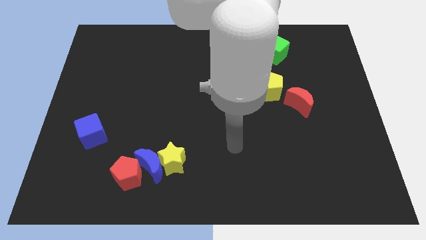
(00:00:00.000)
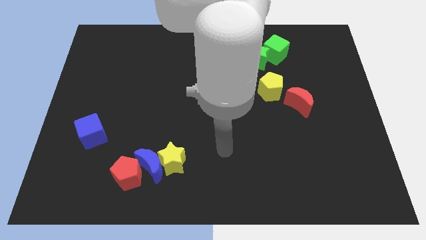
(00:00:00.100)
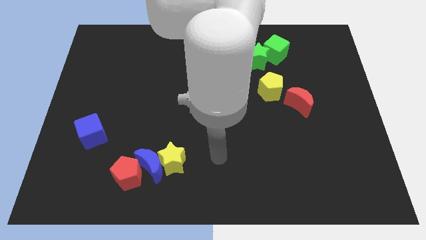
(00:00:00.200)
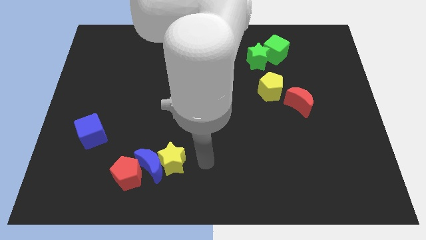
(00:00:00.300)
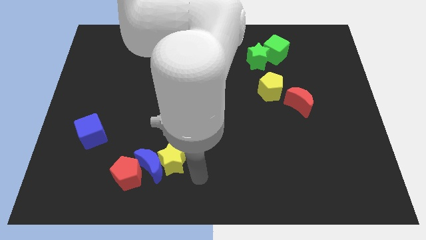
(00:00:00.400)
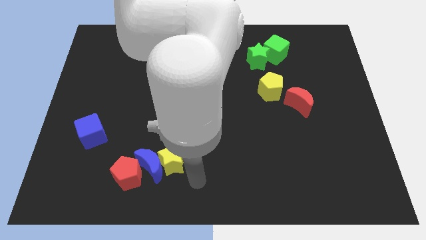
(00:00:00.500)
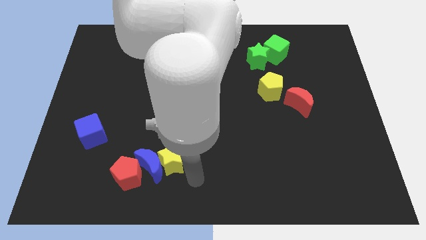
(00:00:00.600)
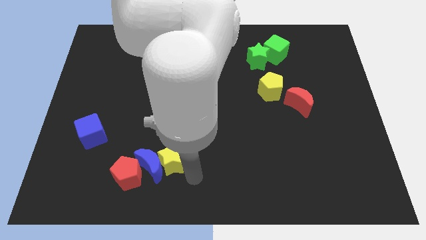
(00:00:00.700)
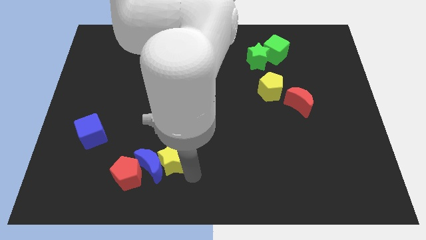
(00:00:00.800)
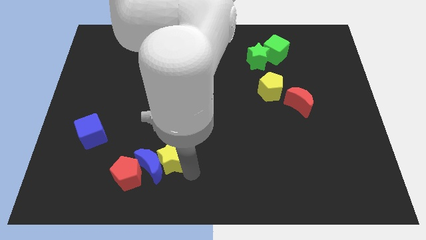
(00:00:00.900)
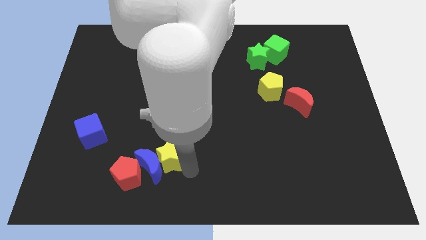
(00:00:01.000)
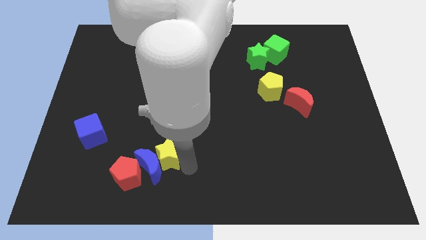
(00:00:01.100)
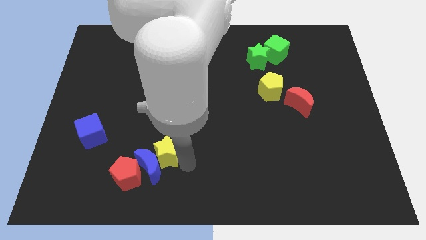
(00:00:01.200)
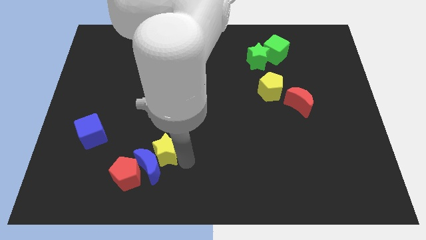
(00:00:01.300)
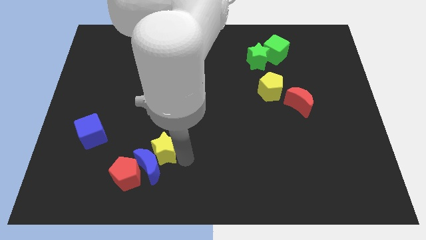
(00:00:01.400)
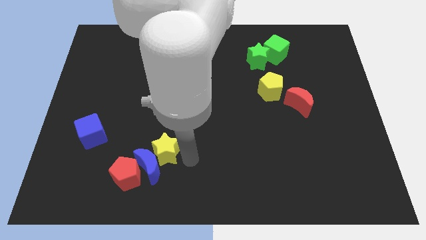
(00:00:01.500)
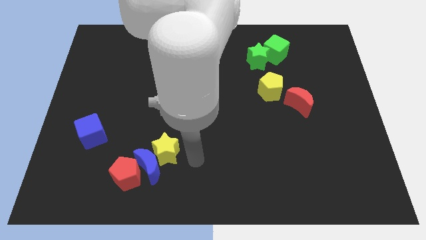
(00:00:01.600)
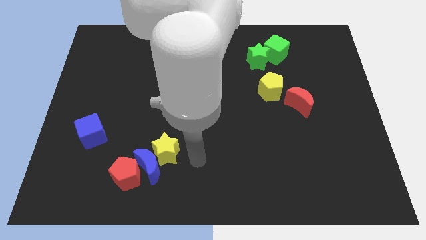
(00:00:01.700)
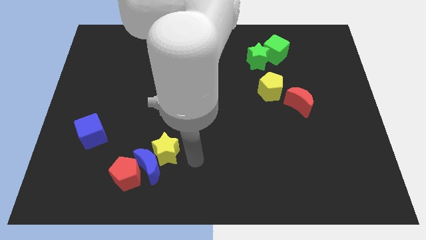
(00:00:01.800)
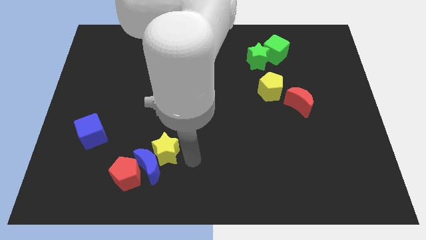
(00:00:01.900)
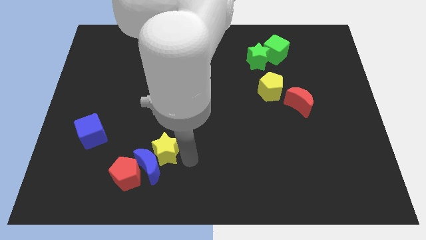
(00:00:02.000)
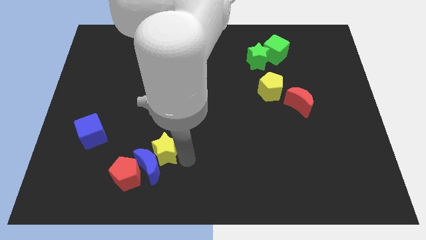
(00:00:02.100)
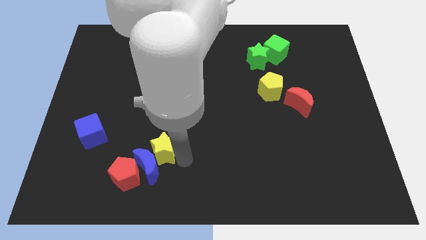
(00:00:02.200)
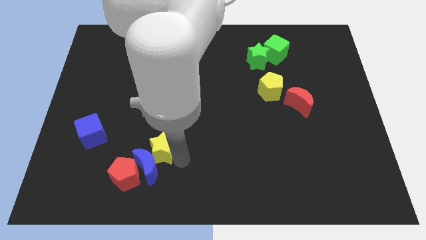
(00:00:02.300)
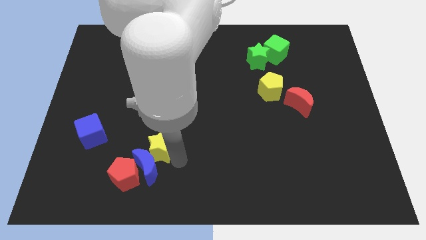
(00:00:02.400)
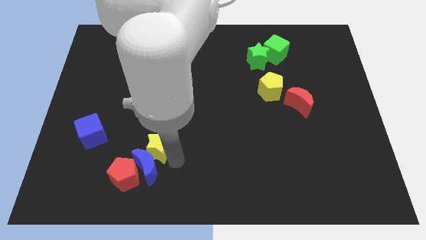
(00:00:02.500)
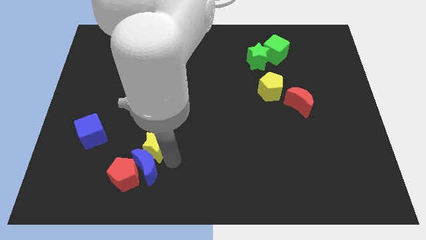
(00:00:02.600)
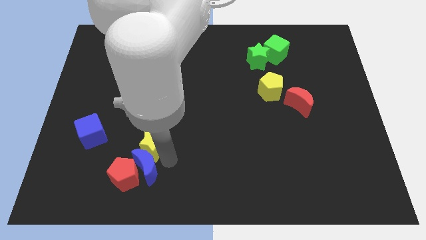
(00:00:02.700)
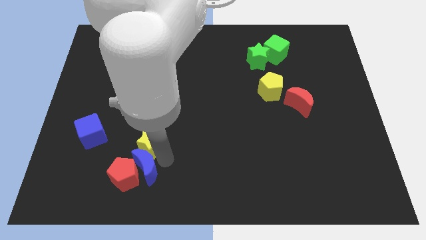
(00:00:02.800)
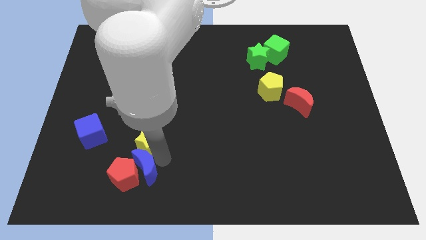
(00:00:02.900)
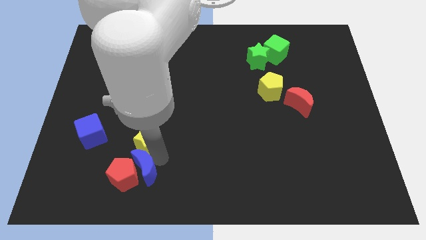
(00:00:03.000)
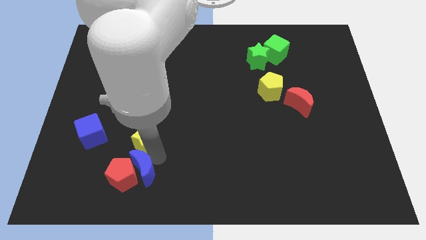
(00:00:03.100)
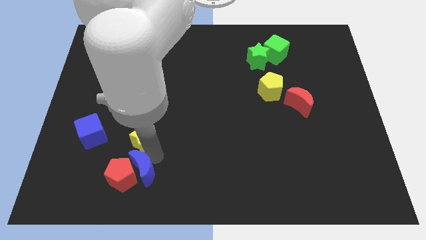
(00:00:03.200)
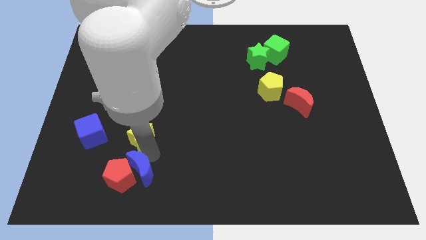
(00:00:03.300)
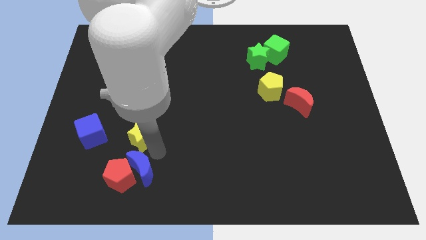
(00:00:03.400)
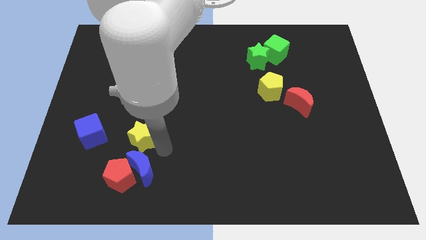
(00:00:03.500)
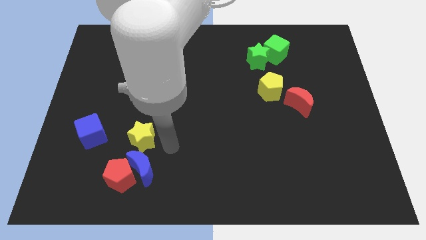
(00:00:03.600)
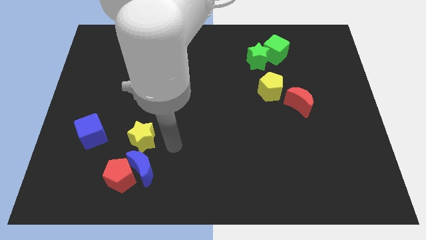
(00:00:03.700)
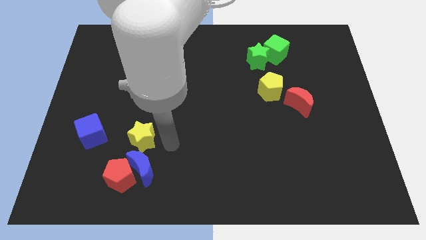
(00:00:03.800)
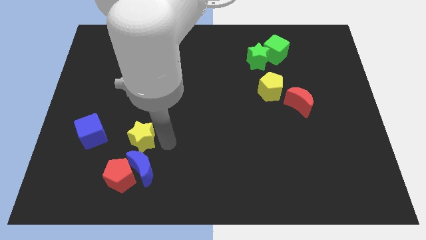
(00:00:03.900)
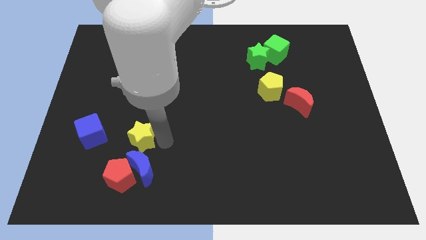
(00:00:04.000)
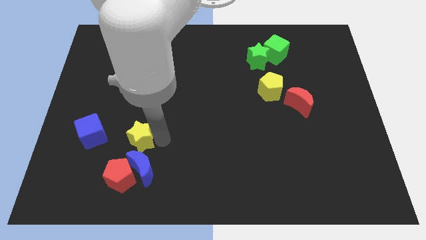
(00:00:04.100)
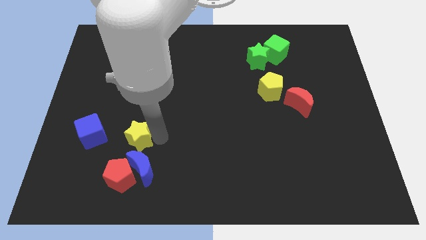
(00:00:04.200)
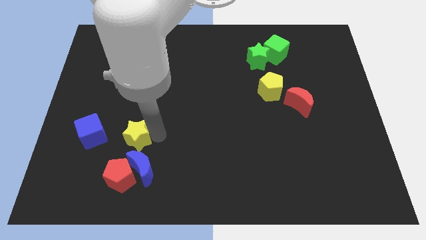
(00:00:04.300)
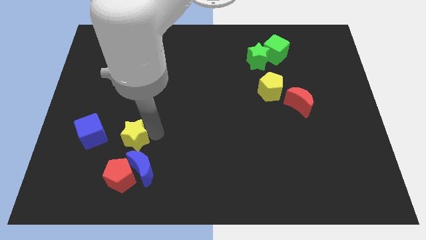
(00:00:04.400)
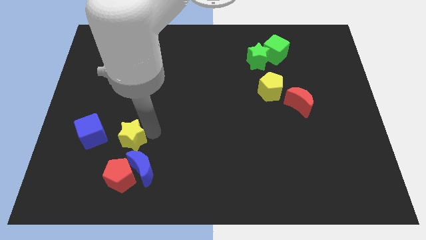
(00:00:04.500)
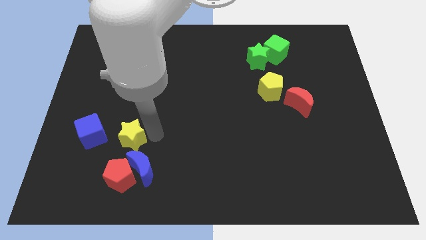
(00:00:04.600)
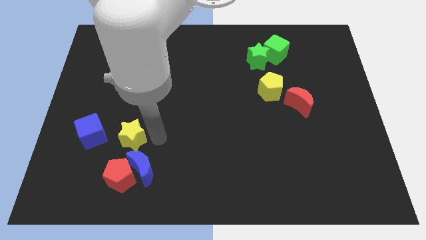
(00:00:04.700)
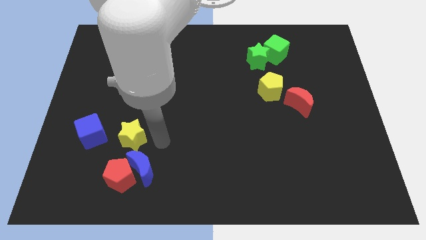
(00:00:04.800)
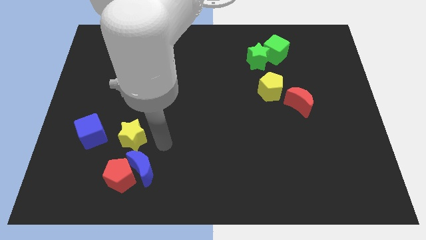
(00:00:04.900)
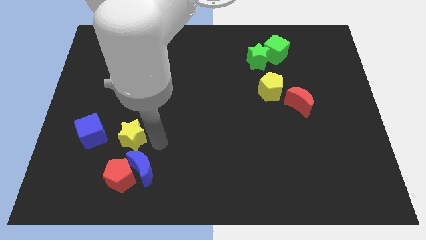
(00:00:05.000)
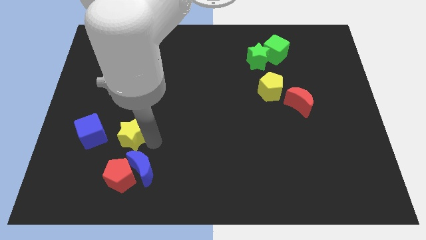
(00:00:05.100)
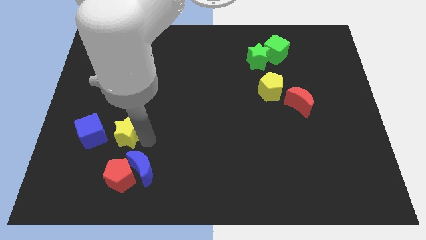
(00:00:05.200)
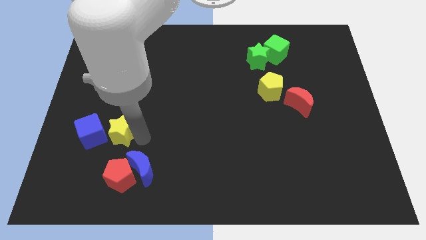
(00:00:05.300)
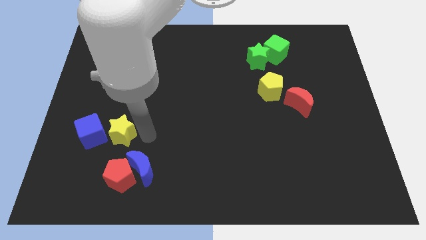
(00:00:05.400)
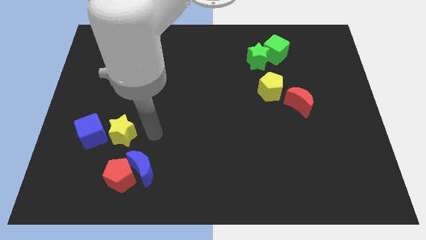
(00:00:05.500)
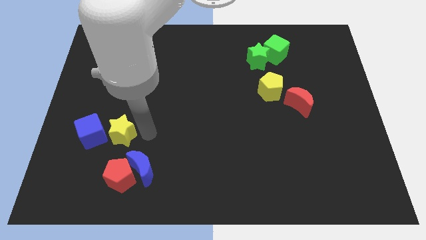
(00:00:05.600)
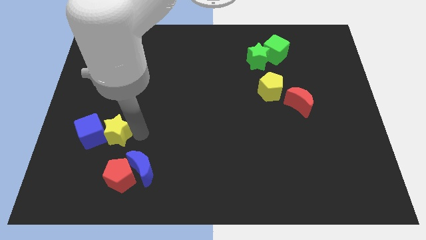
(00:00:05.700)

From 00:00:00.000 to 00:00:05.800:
put the yellow star close to the blue cube
